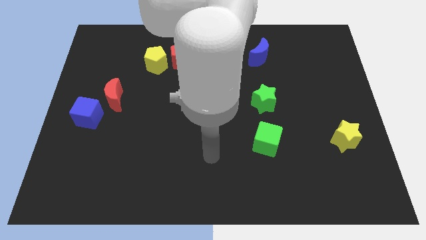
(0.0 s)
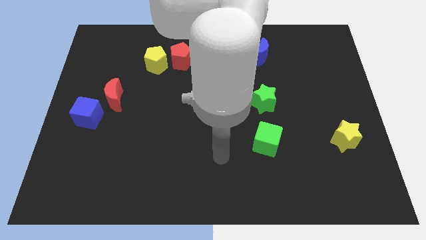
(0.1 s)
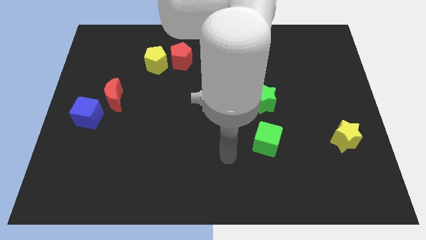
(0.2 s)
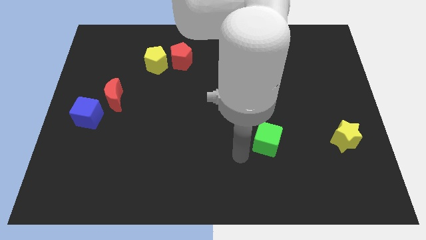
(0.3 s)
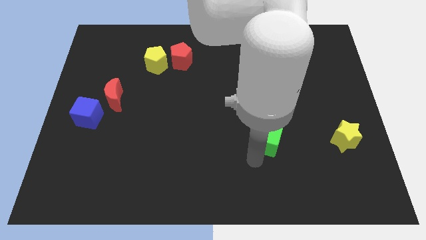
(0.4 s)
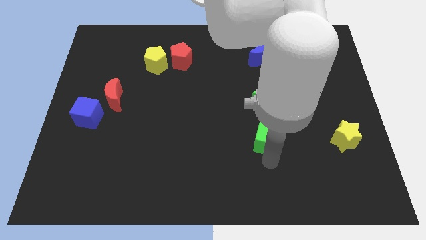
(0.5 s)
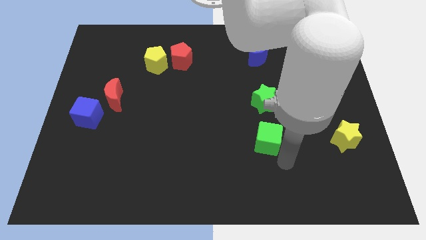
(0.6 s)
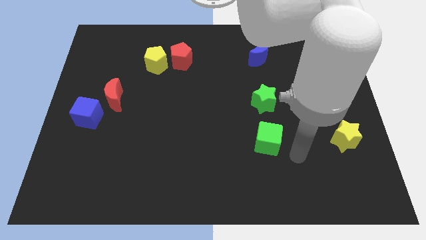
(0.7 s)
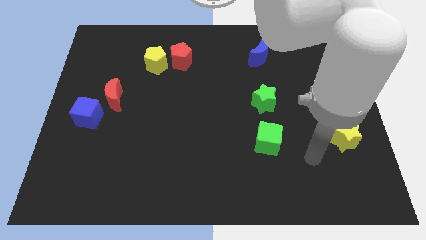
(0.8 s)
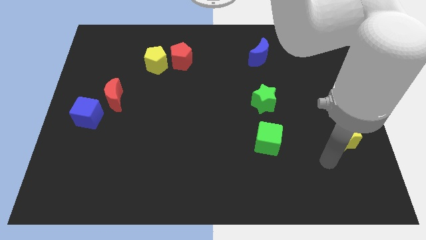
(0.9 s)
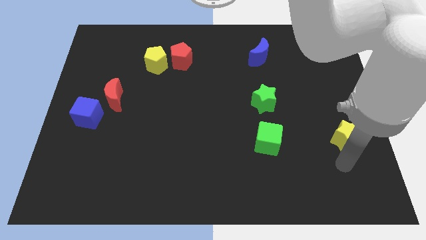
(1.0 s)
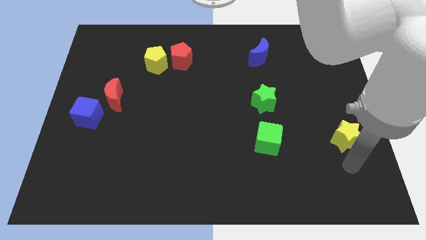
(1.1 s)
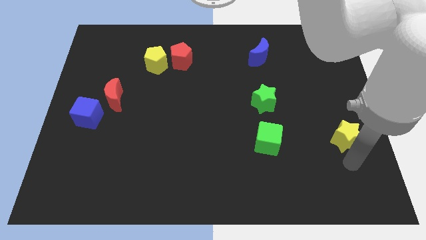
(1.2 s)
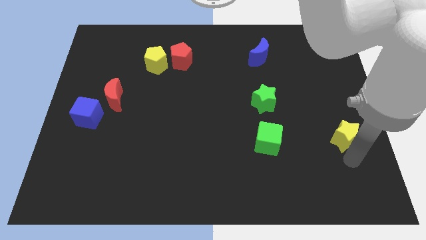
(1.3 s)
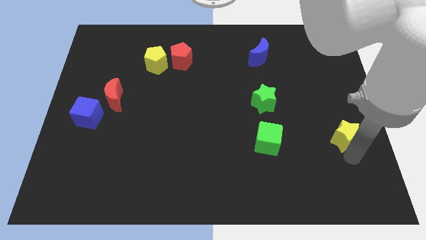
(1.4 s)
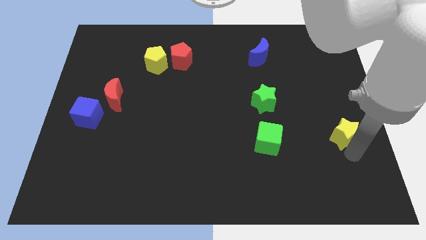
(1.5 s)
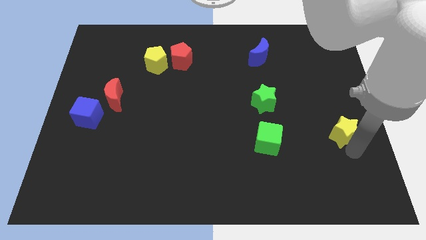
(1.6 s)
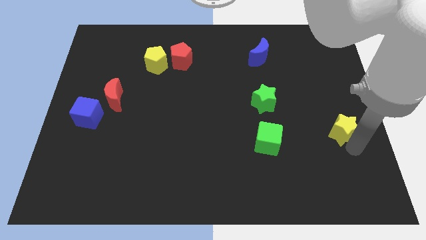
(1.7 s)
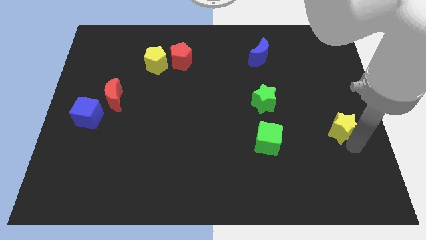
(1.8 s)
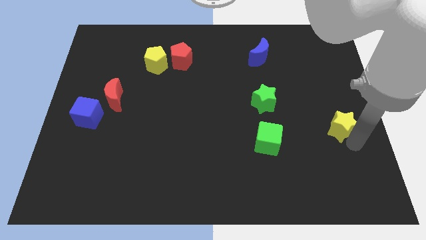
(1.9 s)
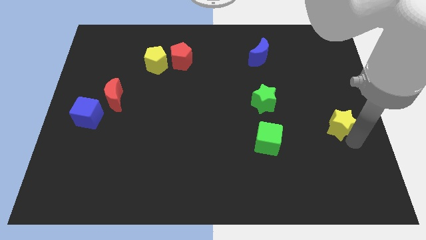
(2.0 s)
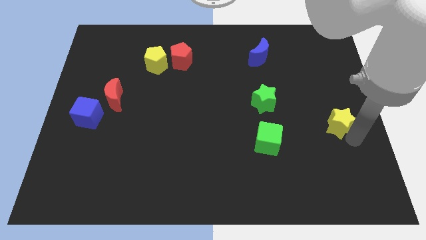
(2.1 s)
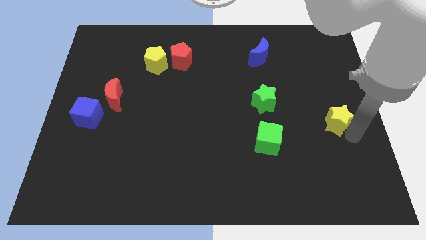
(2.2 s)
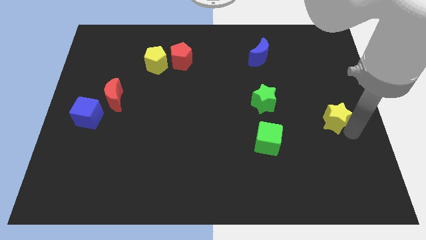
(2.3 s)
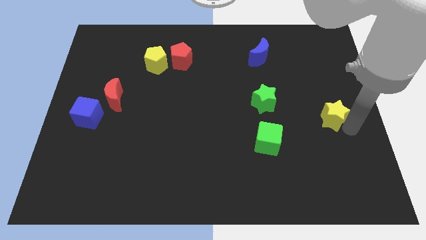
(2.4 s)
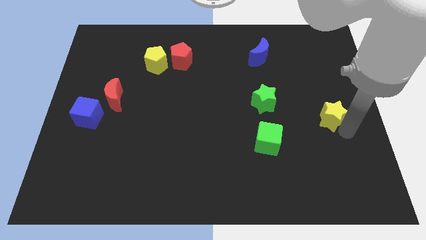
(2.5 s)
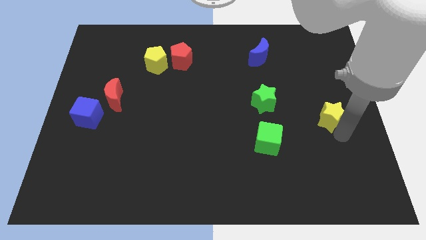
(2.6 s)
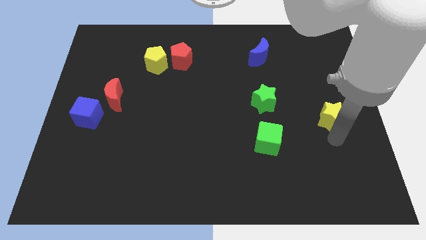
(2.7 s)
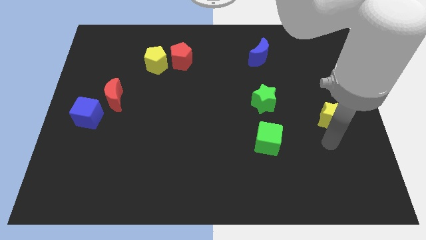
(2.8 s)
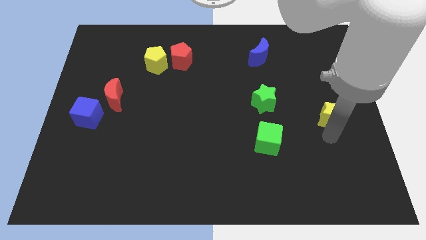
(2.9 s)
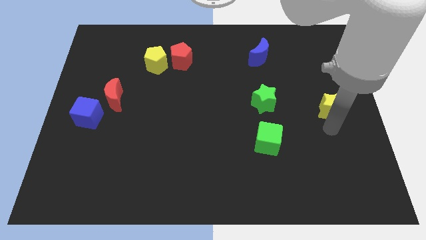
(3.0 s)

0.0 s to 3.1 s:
move the yellow star a little up

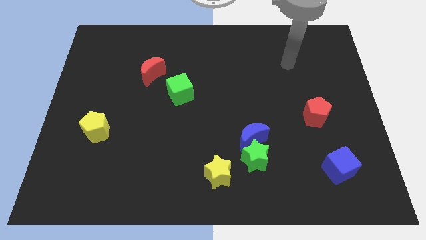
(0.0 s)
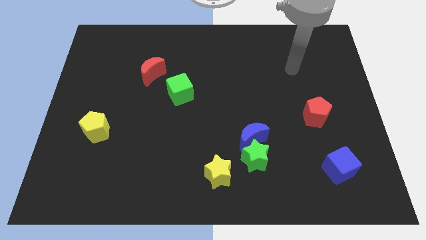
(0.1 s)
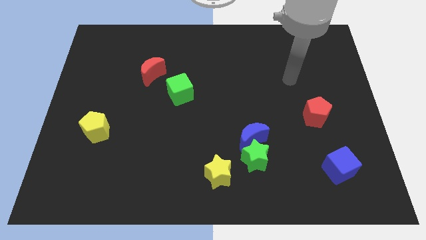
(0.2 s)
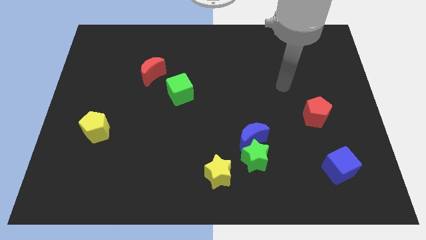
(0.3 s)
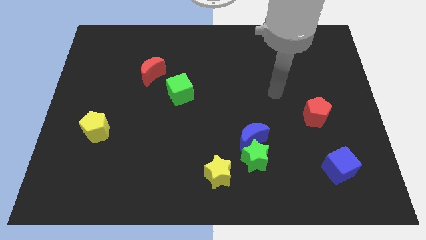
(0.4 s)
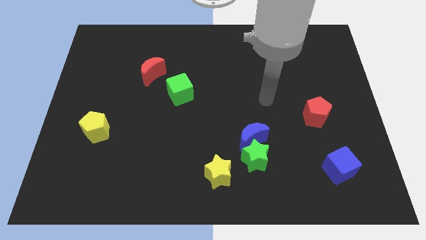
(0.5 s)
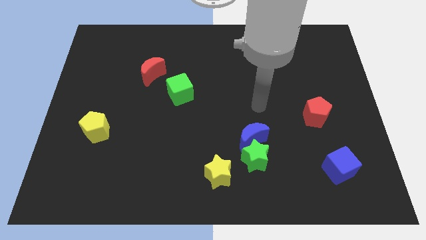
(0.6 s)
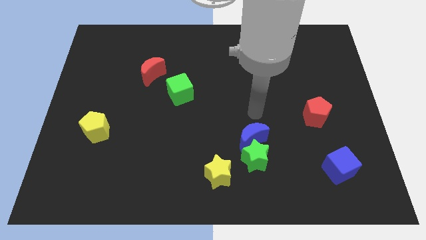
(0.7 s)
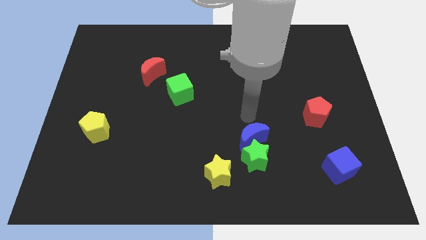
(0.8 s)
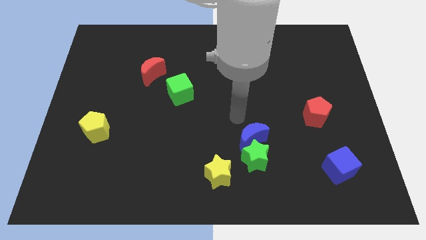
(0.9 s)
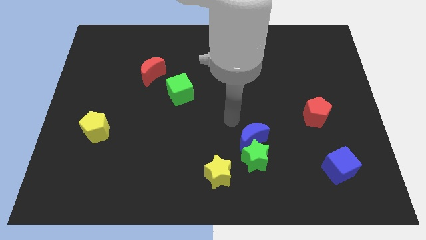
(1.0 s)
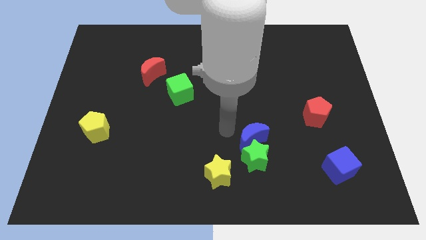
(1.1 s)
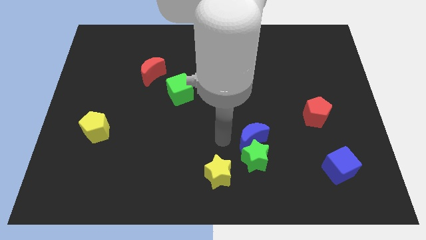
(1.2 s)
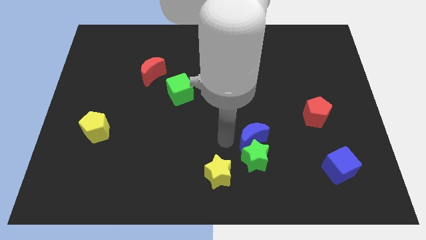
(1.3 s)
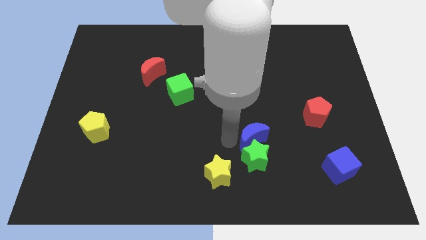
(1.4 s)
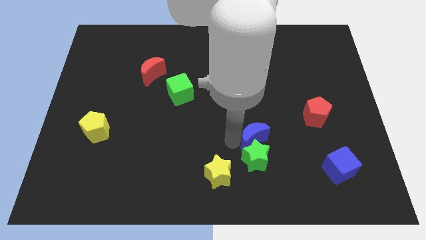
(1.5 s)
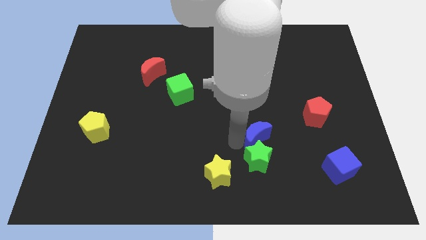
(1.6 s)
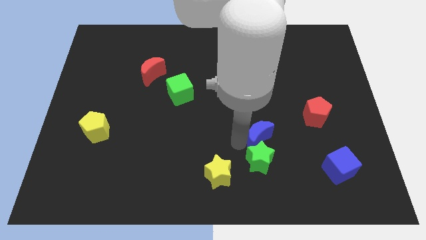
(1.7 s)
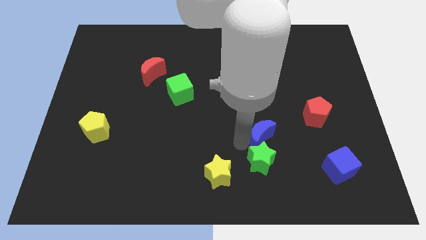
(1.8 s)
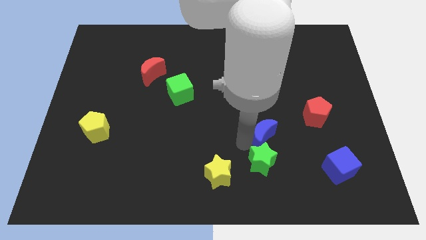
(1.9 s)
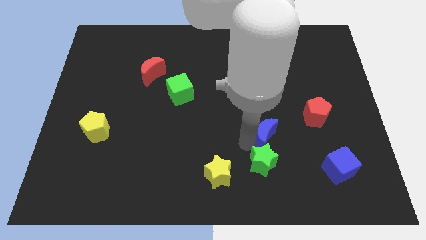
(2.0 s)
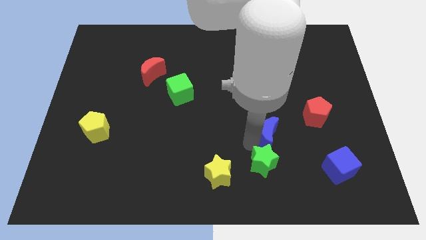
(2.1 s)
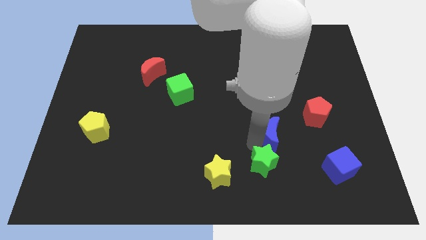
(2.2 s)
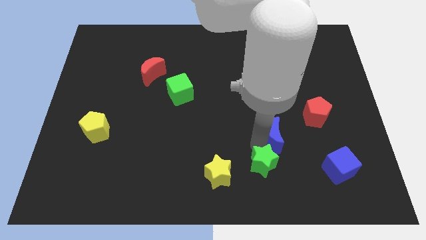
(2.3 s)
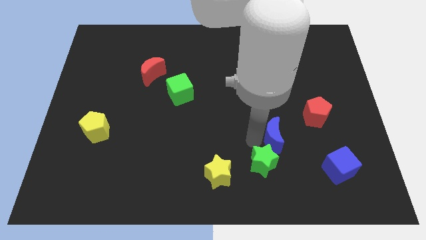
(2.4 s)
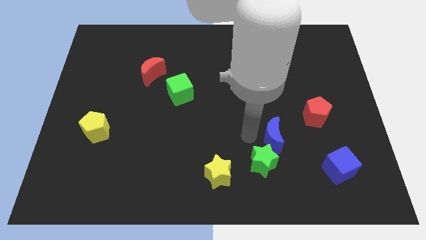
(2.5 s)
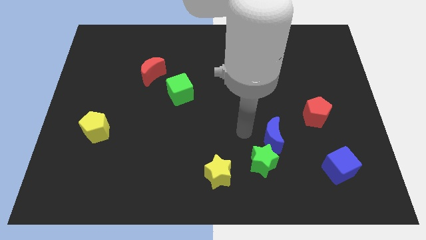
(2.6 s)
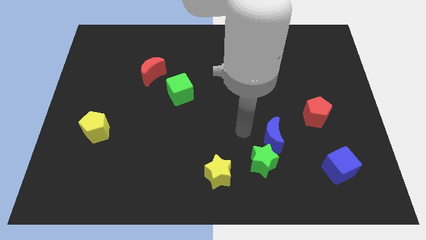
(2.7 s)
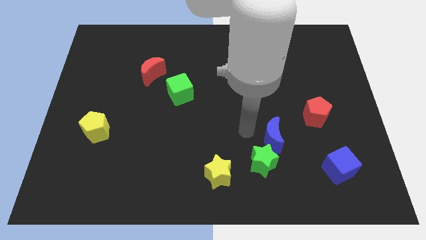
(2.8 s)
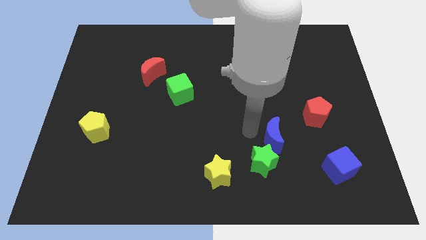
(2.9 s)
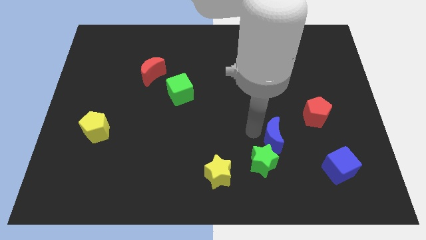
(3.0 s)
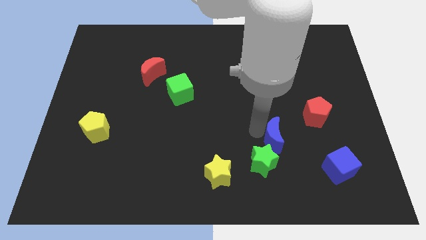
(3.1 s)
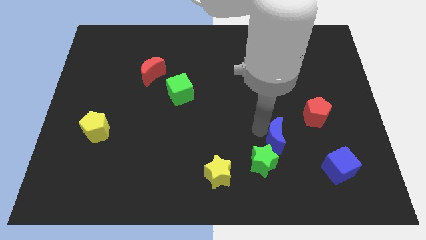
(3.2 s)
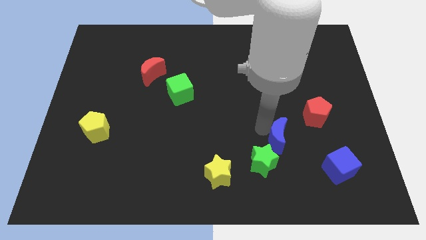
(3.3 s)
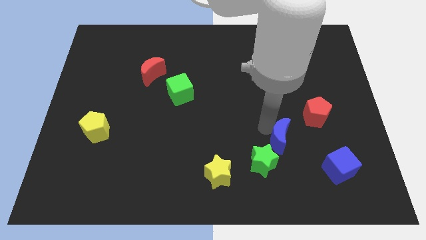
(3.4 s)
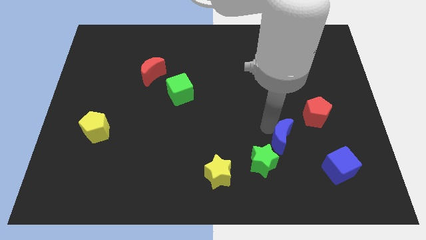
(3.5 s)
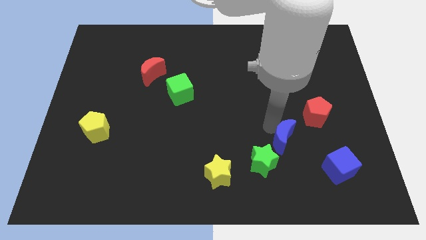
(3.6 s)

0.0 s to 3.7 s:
push the blue moon right a little

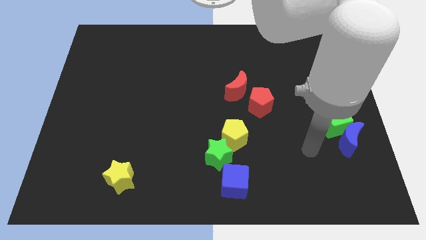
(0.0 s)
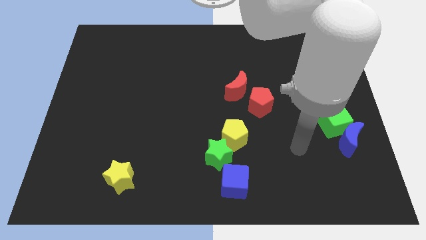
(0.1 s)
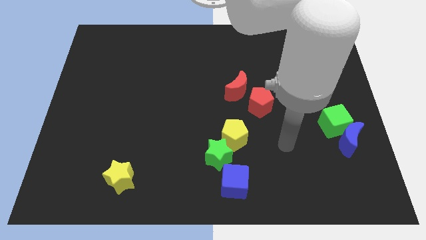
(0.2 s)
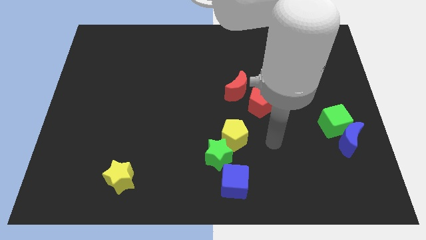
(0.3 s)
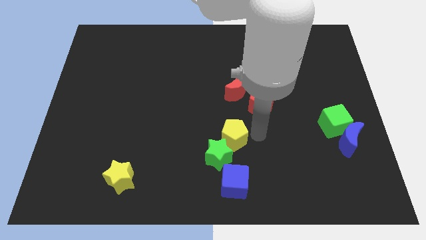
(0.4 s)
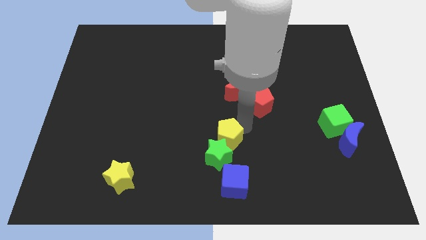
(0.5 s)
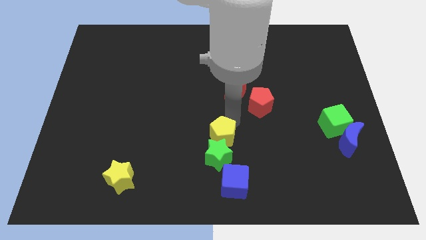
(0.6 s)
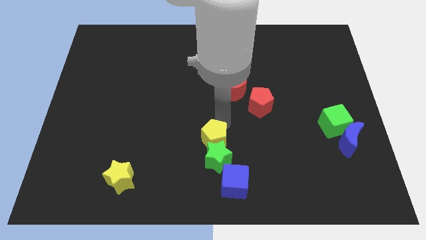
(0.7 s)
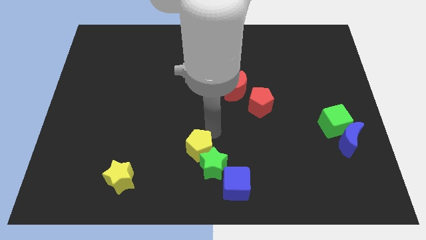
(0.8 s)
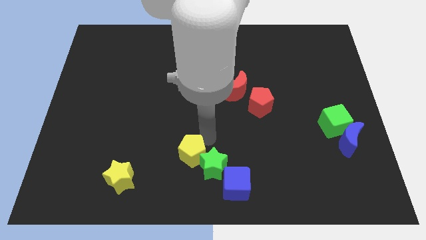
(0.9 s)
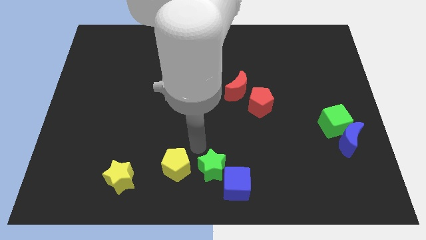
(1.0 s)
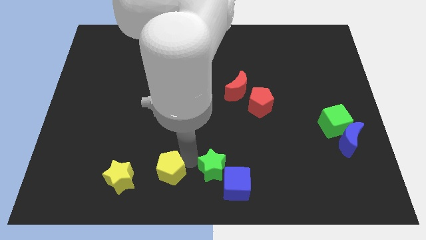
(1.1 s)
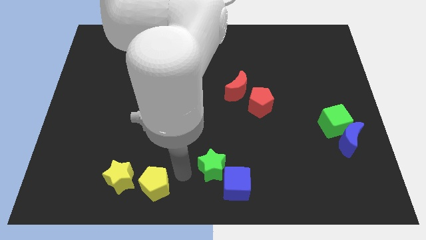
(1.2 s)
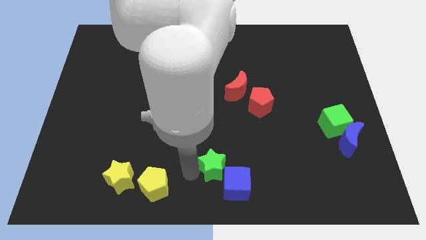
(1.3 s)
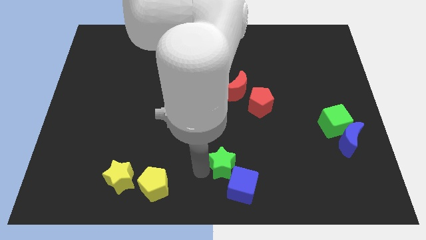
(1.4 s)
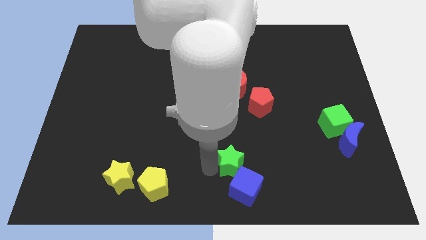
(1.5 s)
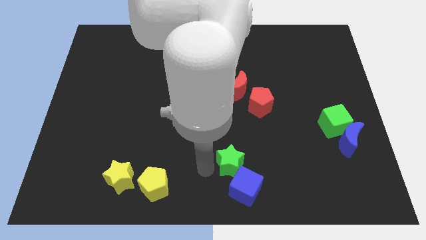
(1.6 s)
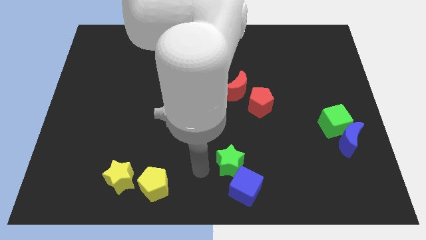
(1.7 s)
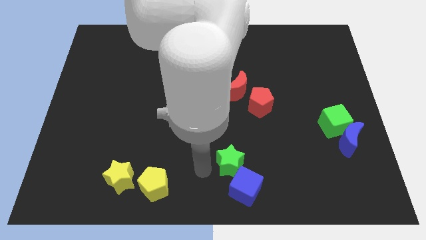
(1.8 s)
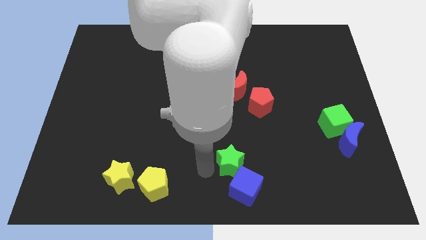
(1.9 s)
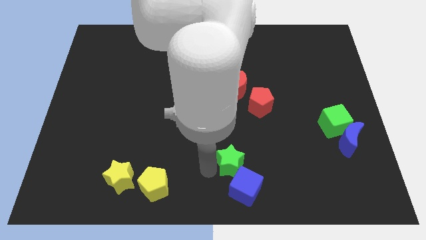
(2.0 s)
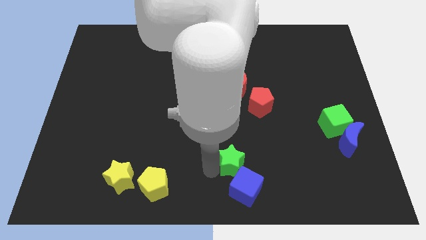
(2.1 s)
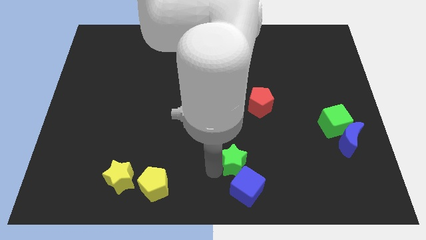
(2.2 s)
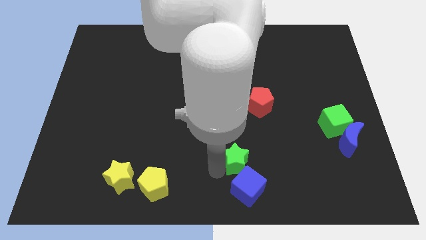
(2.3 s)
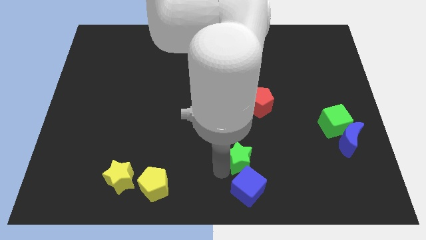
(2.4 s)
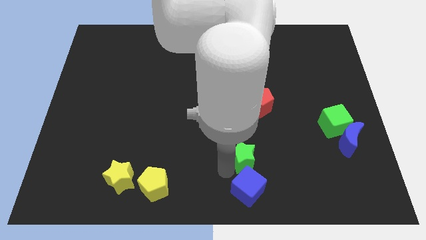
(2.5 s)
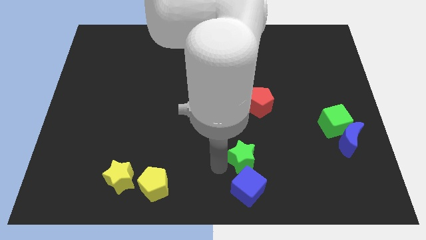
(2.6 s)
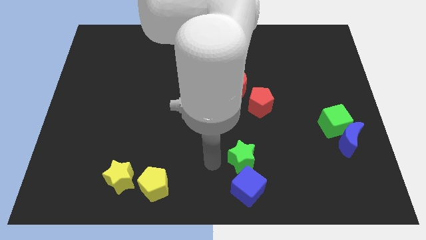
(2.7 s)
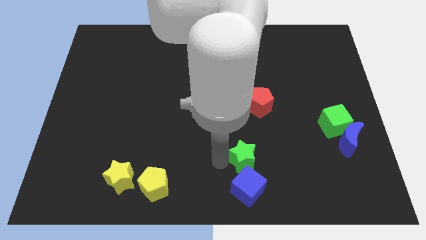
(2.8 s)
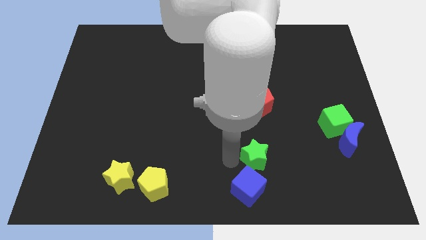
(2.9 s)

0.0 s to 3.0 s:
slightly move the green star to the right
